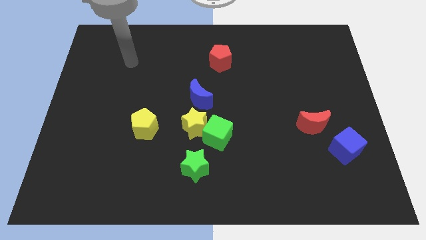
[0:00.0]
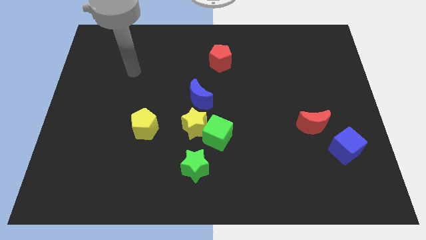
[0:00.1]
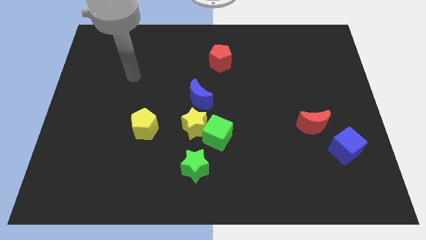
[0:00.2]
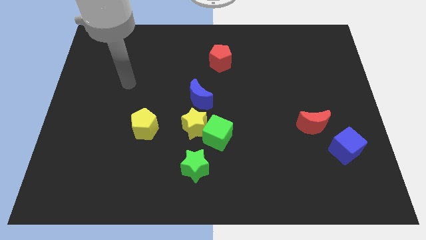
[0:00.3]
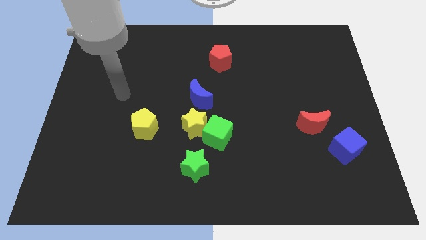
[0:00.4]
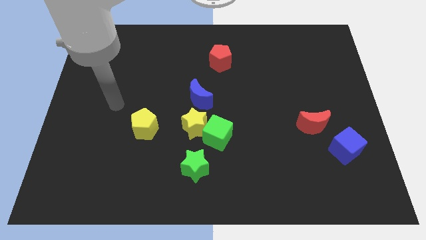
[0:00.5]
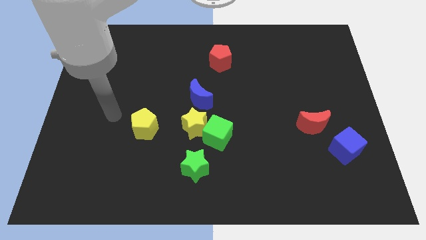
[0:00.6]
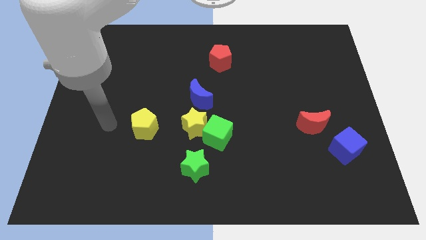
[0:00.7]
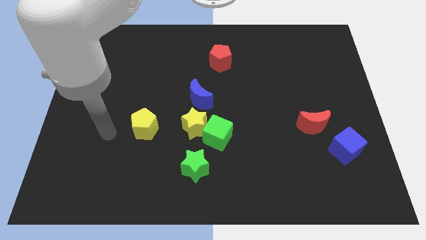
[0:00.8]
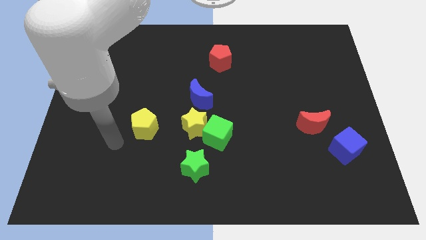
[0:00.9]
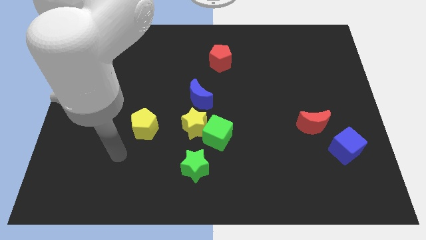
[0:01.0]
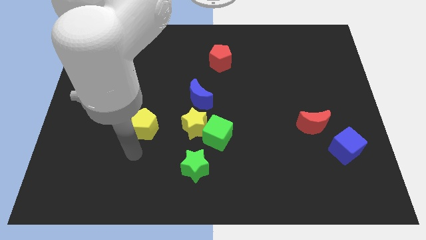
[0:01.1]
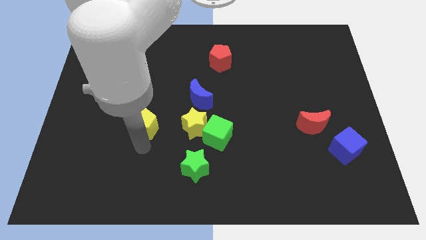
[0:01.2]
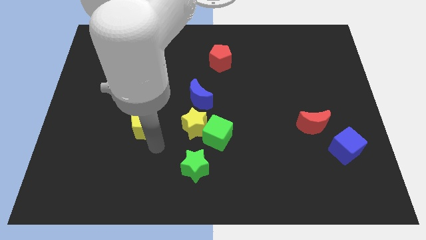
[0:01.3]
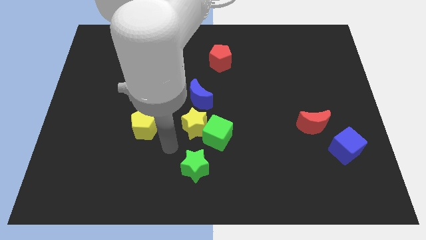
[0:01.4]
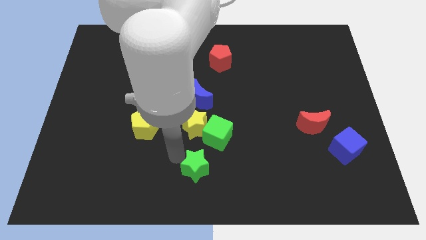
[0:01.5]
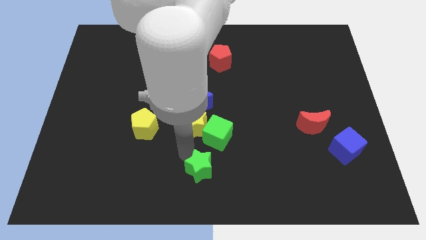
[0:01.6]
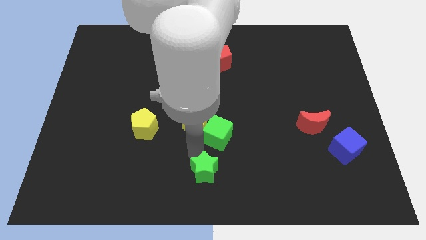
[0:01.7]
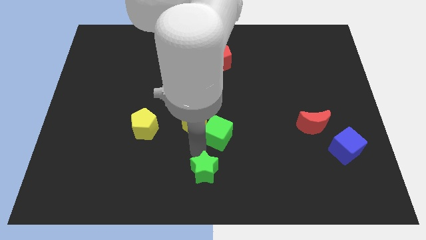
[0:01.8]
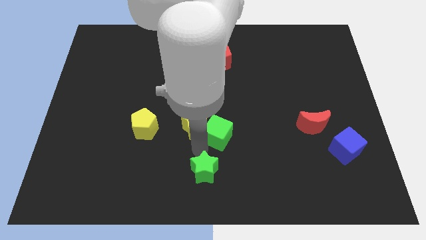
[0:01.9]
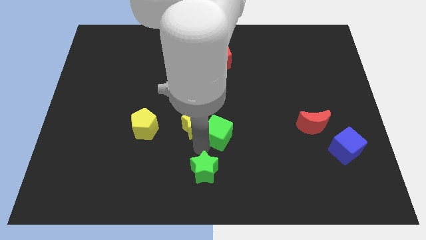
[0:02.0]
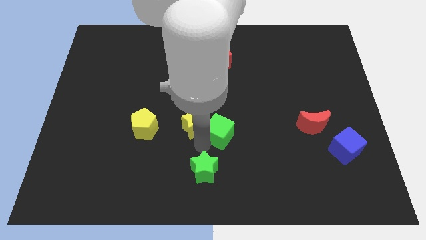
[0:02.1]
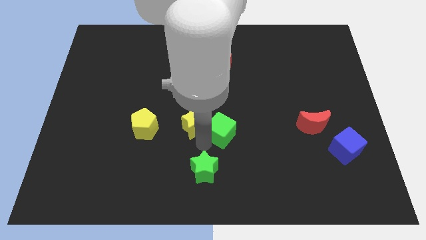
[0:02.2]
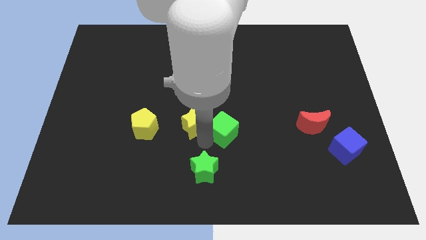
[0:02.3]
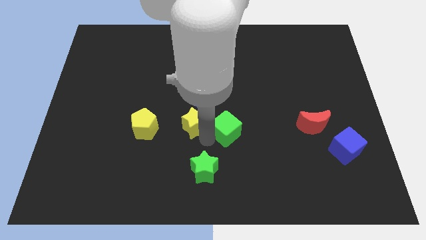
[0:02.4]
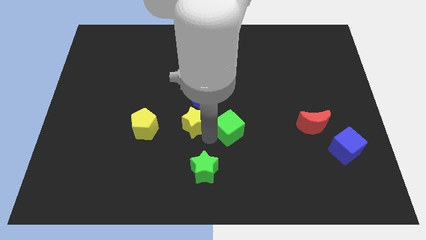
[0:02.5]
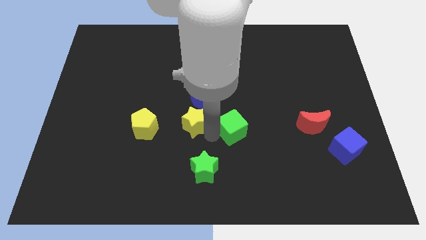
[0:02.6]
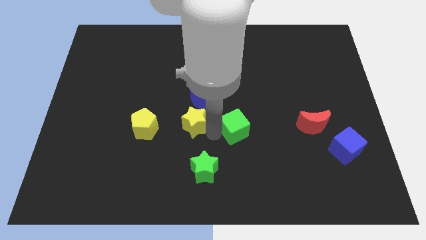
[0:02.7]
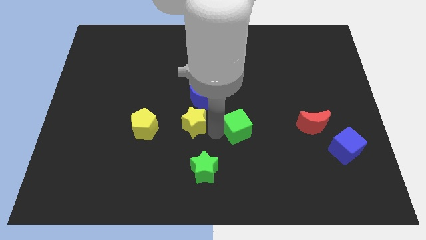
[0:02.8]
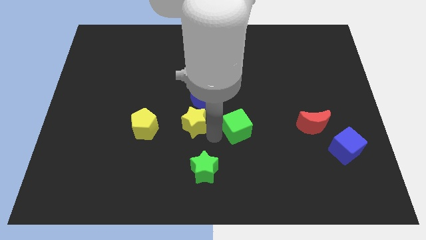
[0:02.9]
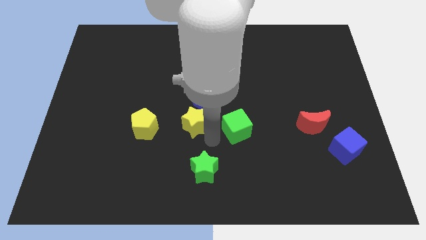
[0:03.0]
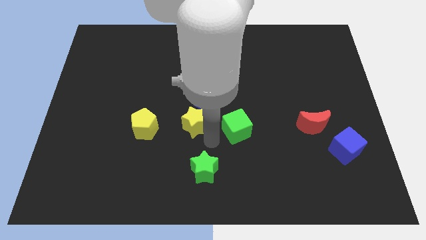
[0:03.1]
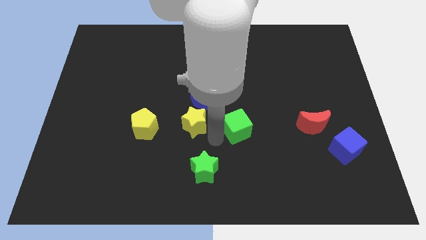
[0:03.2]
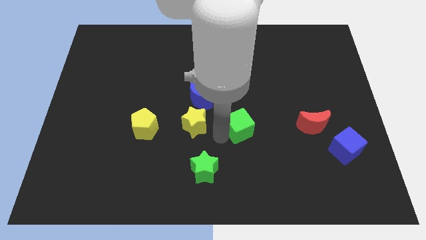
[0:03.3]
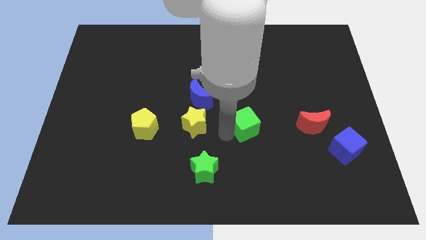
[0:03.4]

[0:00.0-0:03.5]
pull the green cube apart from the yellow star and green star

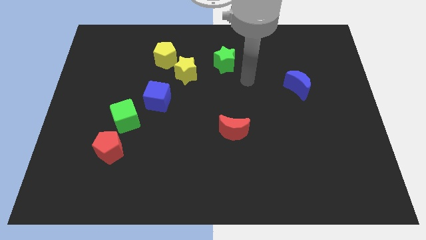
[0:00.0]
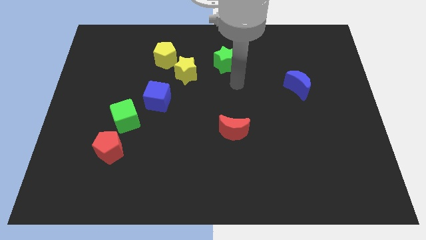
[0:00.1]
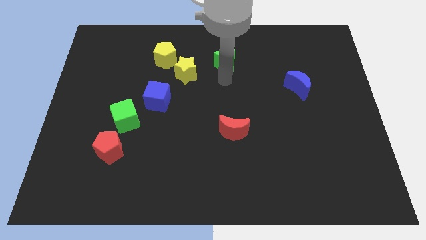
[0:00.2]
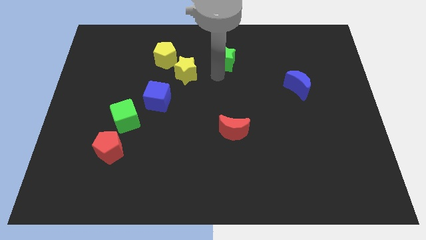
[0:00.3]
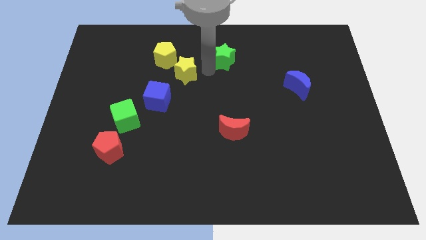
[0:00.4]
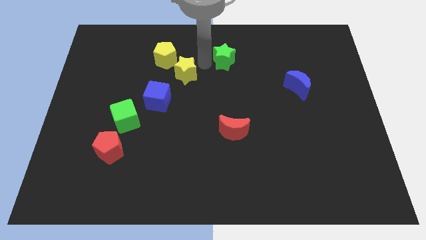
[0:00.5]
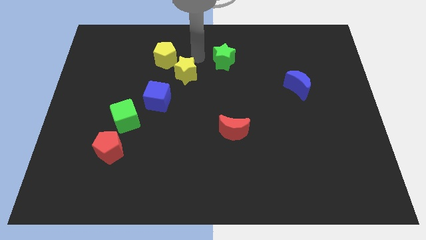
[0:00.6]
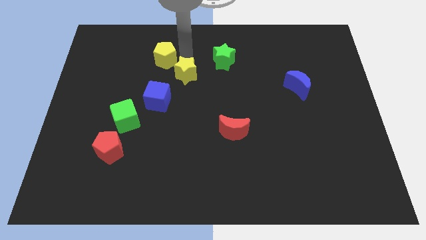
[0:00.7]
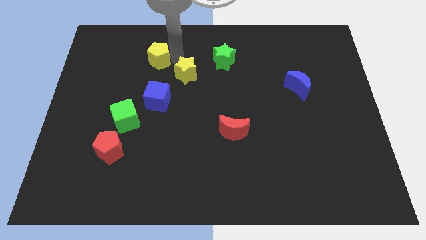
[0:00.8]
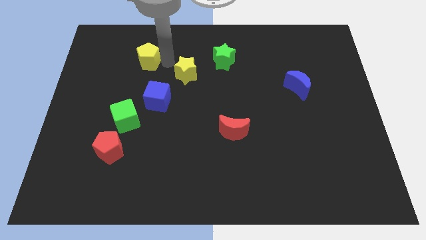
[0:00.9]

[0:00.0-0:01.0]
pull the yellow star apart from the yellow pentagon

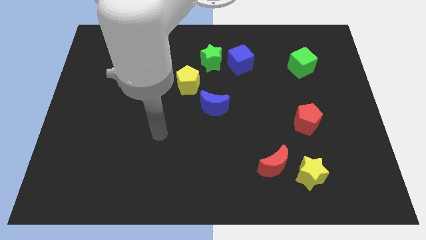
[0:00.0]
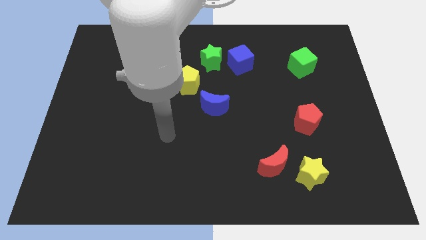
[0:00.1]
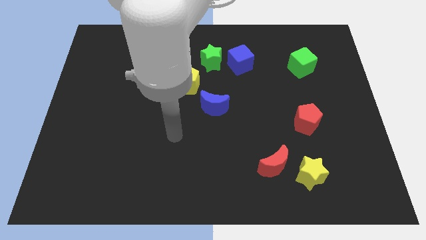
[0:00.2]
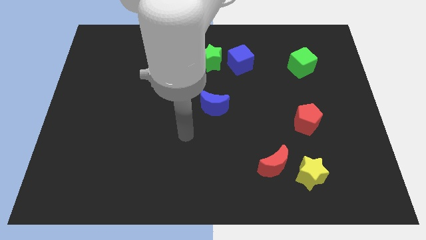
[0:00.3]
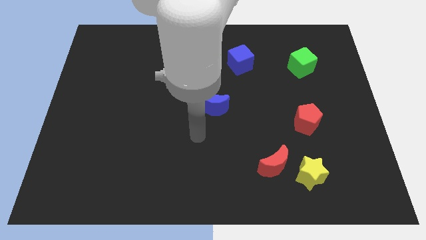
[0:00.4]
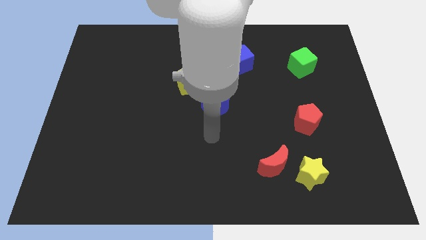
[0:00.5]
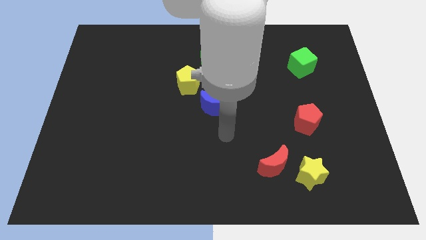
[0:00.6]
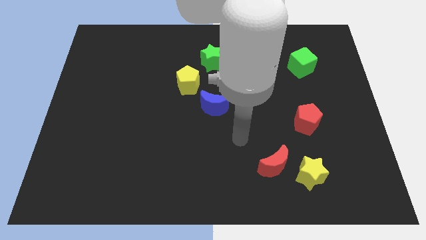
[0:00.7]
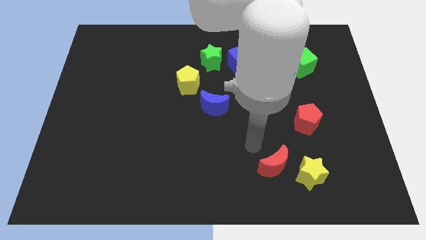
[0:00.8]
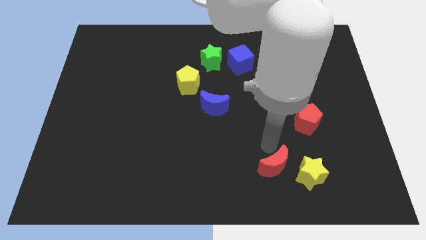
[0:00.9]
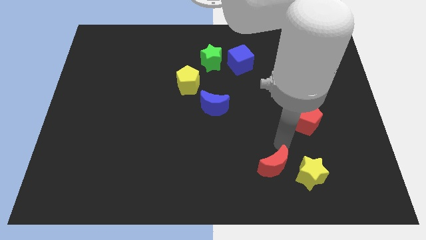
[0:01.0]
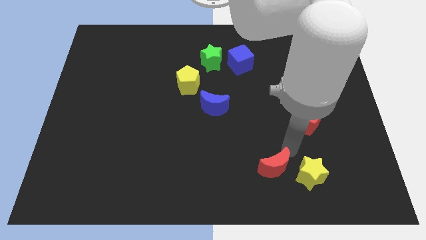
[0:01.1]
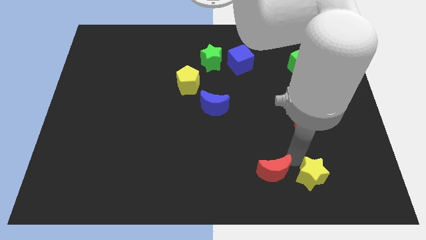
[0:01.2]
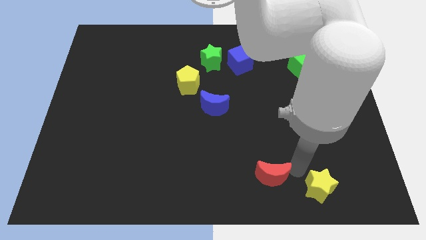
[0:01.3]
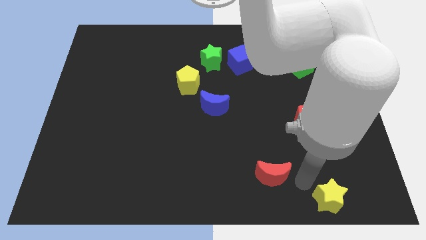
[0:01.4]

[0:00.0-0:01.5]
move the red moon away from the yellow star

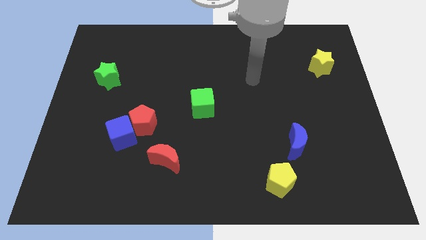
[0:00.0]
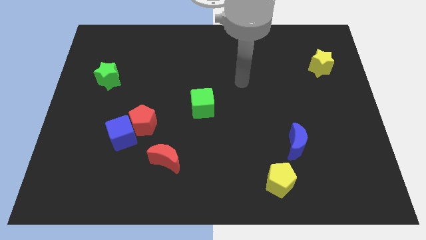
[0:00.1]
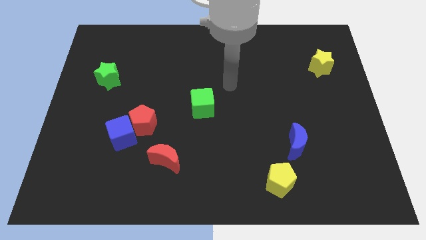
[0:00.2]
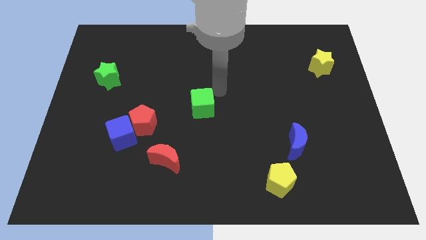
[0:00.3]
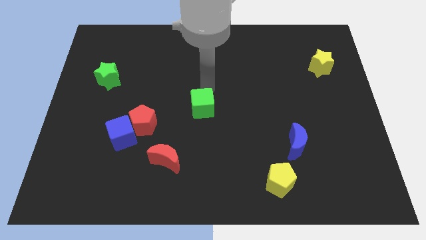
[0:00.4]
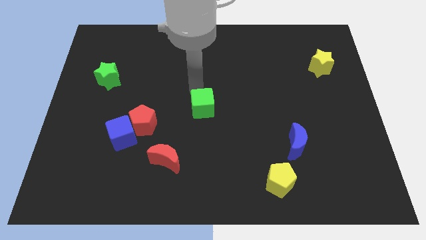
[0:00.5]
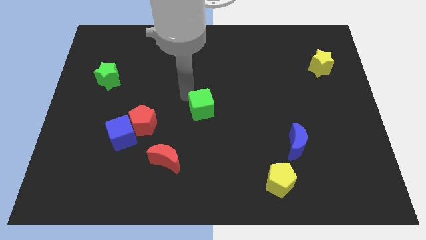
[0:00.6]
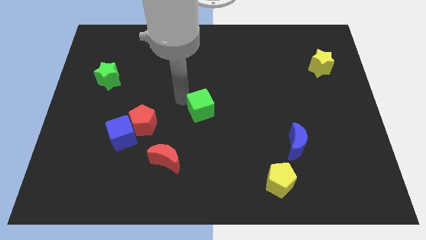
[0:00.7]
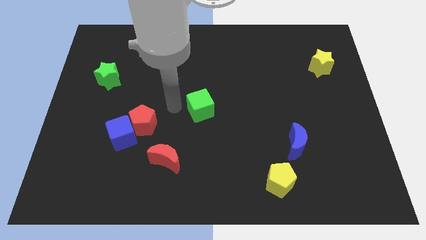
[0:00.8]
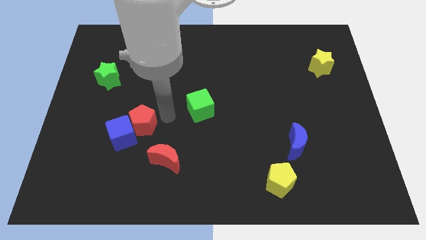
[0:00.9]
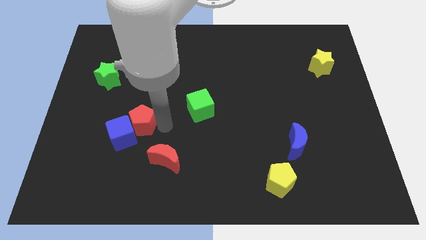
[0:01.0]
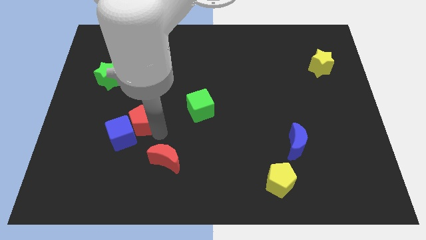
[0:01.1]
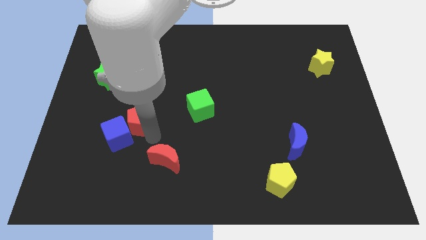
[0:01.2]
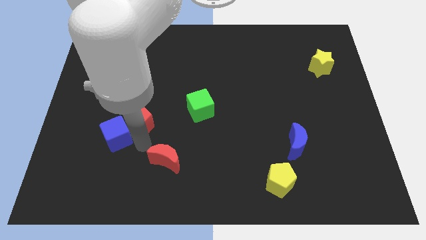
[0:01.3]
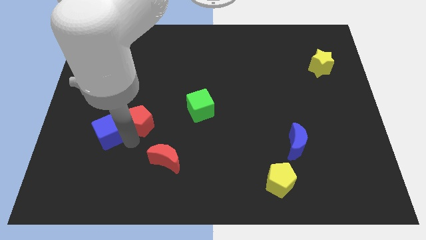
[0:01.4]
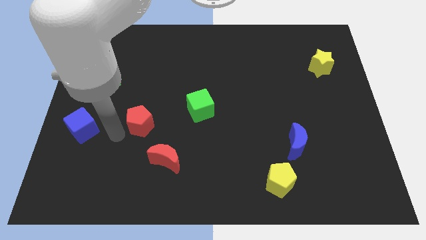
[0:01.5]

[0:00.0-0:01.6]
pull the red pentagon apart from the blue cube

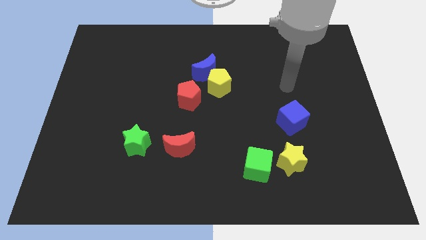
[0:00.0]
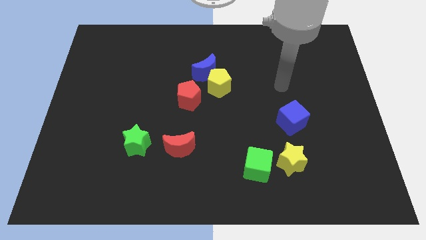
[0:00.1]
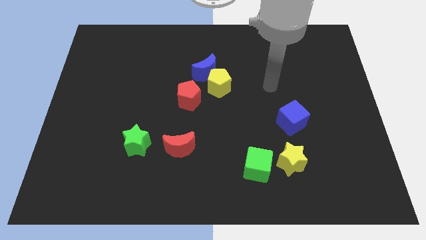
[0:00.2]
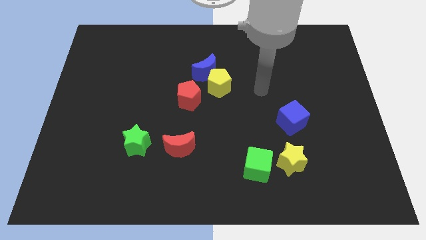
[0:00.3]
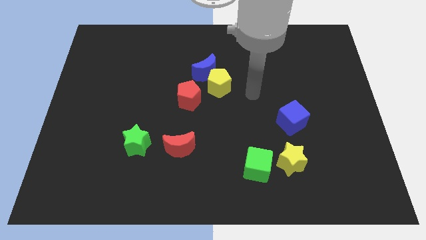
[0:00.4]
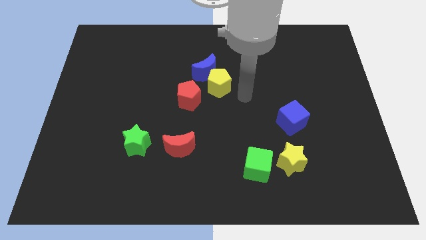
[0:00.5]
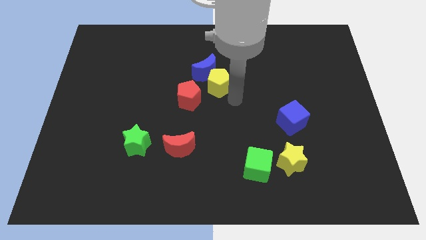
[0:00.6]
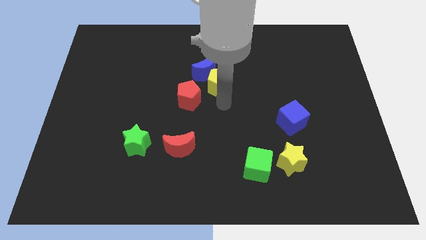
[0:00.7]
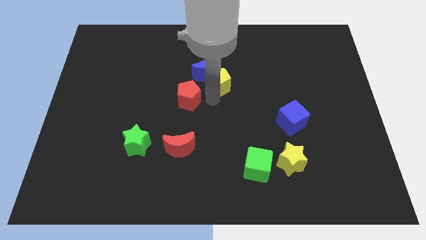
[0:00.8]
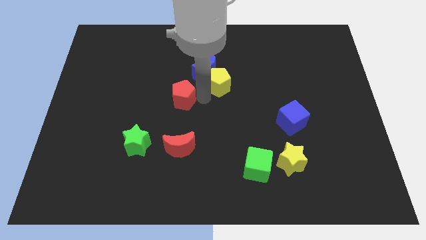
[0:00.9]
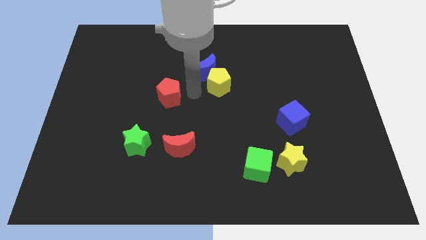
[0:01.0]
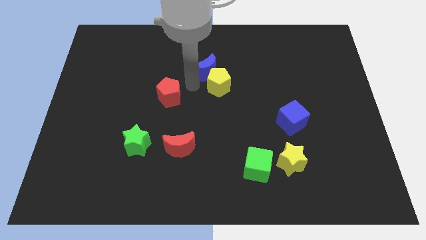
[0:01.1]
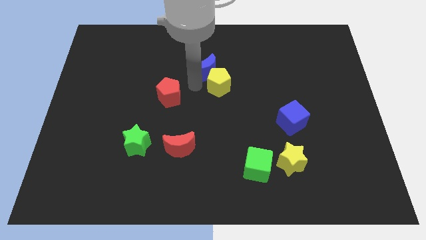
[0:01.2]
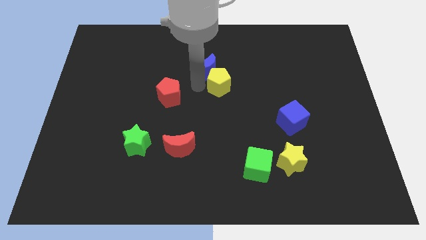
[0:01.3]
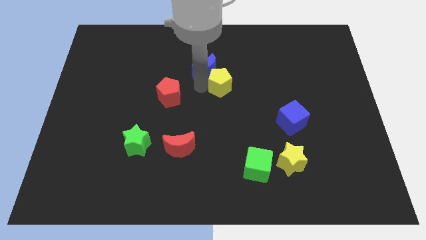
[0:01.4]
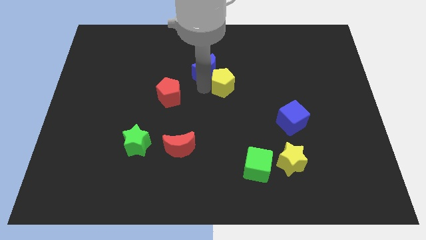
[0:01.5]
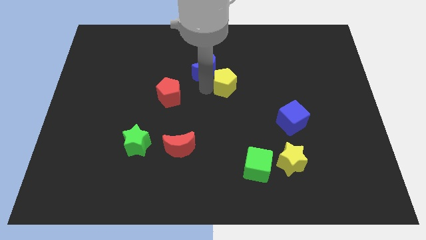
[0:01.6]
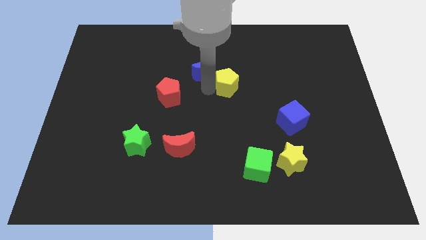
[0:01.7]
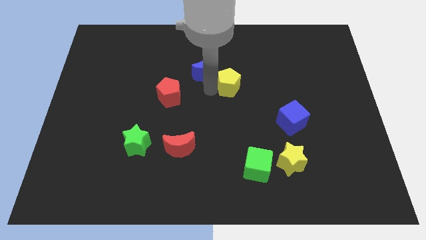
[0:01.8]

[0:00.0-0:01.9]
pull the yellow pentagon apart from the blue moon and red pentagon
